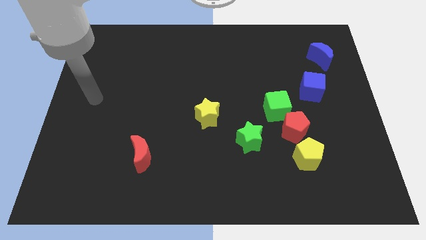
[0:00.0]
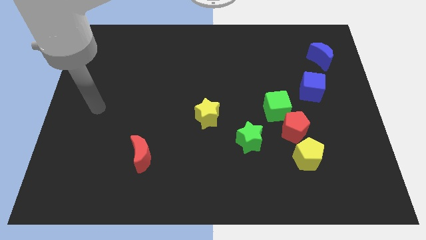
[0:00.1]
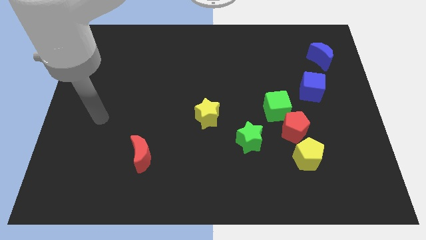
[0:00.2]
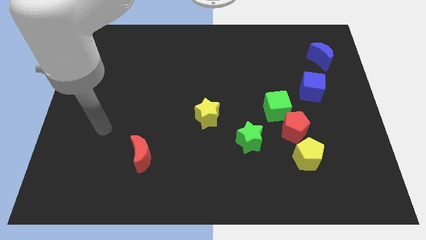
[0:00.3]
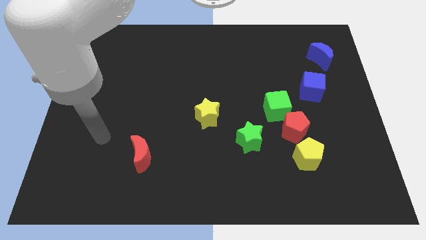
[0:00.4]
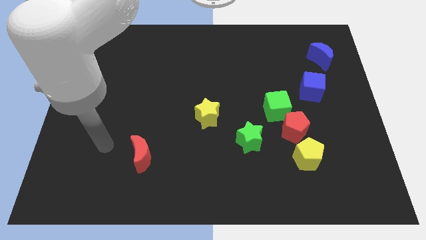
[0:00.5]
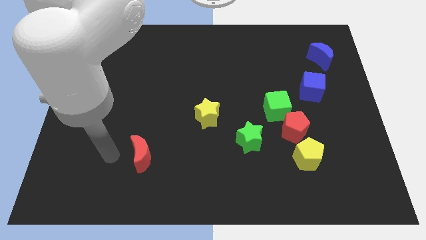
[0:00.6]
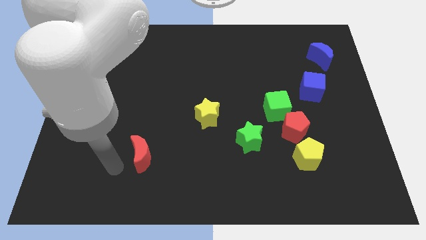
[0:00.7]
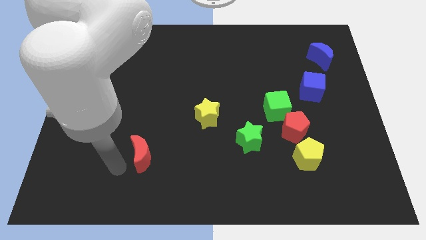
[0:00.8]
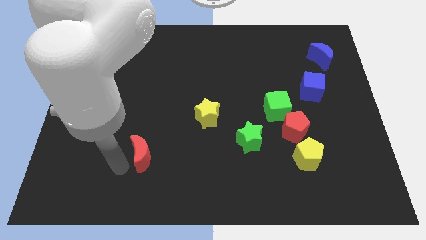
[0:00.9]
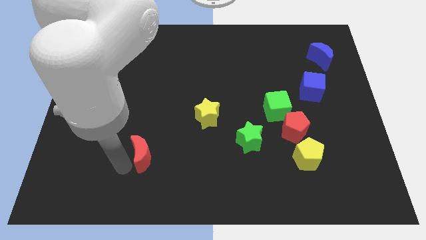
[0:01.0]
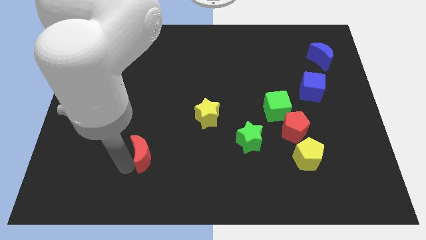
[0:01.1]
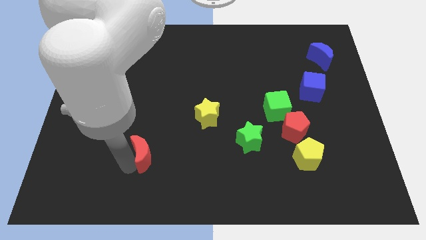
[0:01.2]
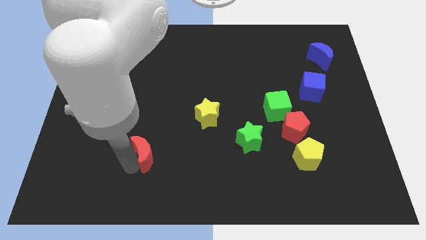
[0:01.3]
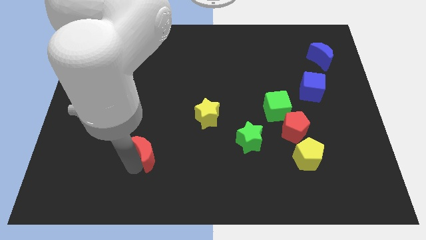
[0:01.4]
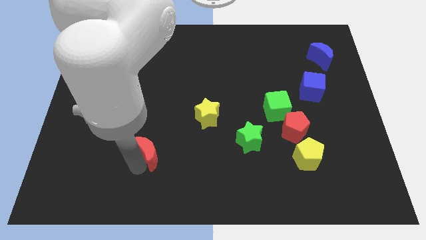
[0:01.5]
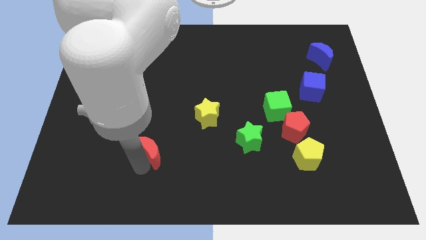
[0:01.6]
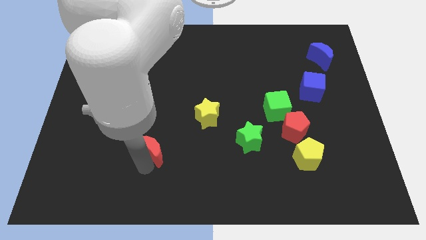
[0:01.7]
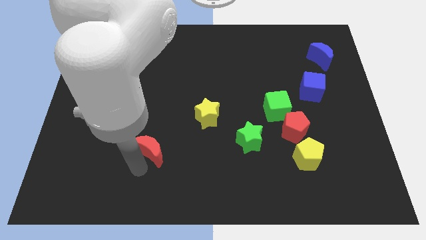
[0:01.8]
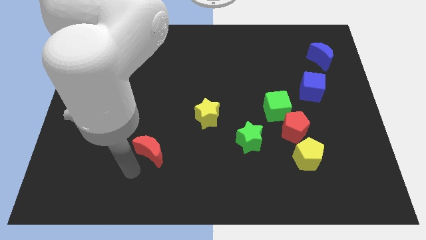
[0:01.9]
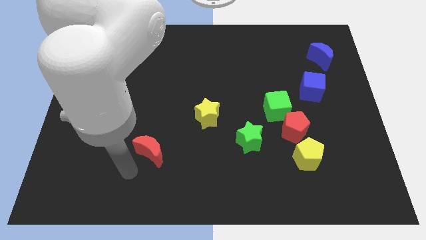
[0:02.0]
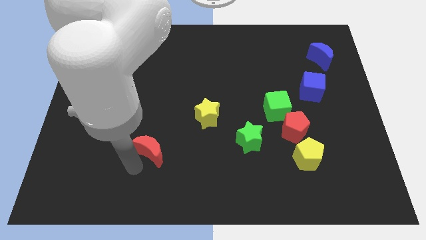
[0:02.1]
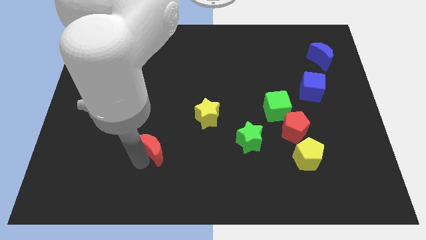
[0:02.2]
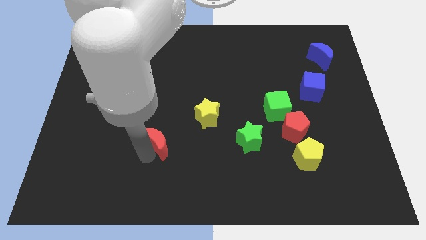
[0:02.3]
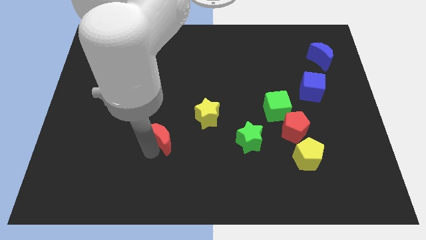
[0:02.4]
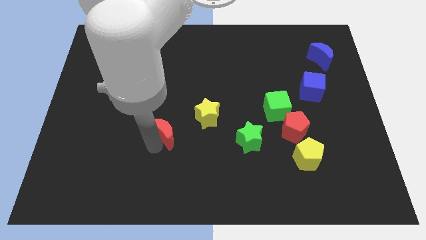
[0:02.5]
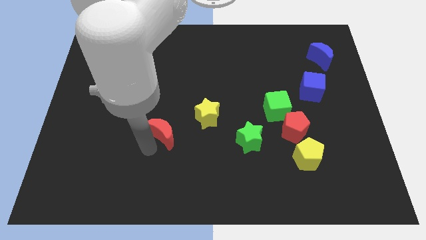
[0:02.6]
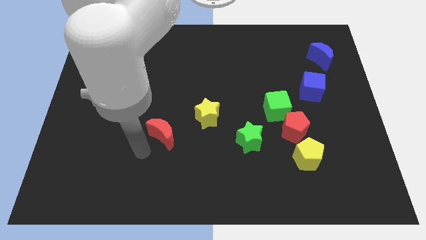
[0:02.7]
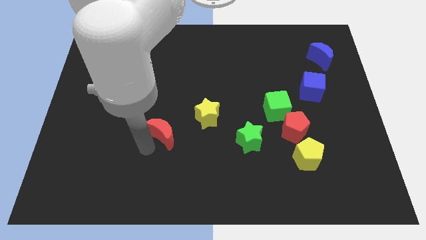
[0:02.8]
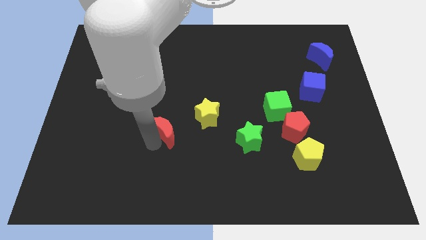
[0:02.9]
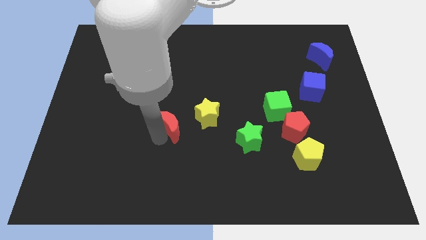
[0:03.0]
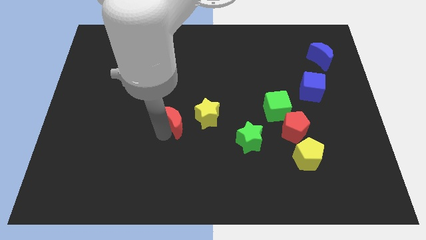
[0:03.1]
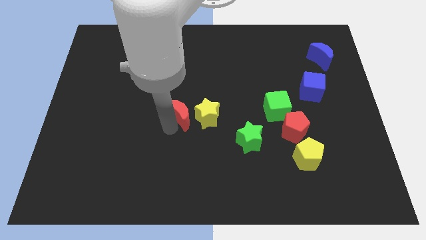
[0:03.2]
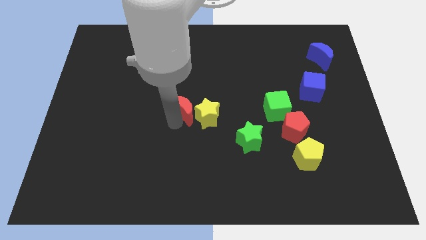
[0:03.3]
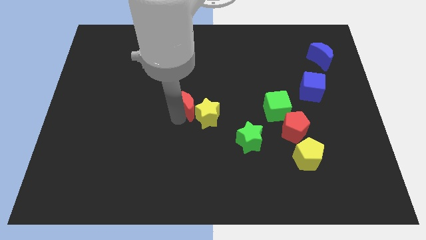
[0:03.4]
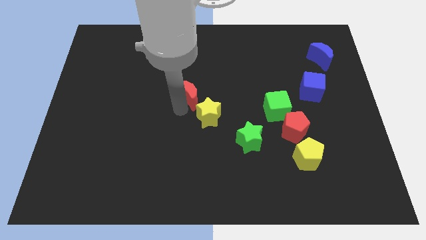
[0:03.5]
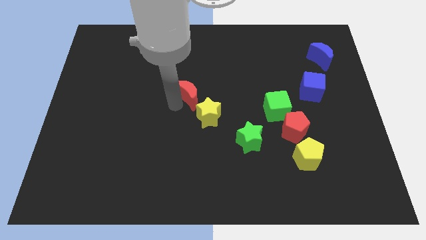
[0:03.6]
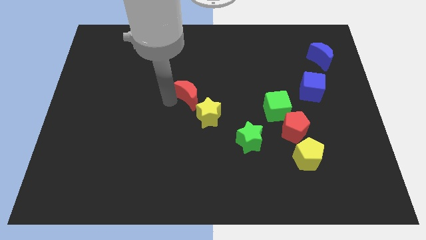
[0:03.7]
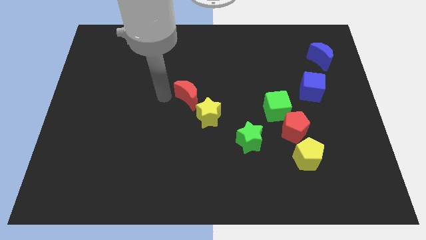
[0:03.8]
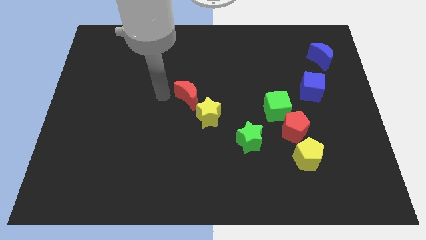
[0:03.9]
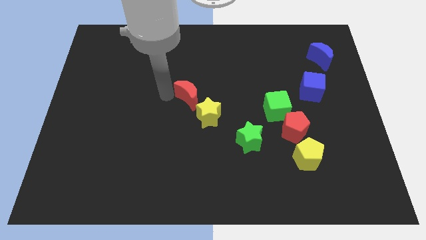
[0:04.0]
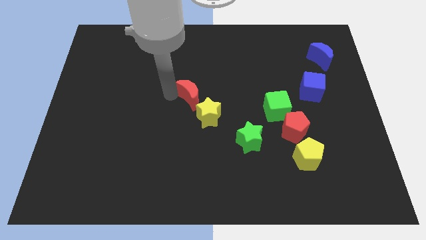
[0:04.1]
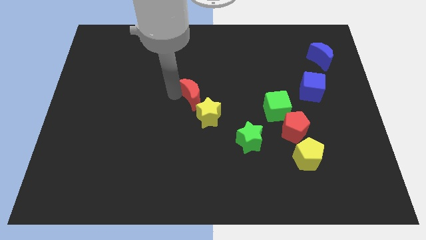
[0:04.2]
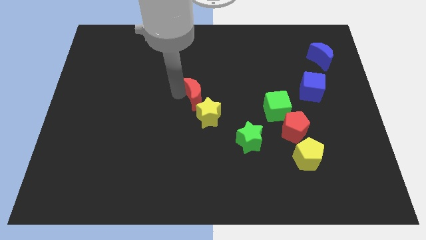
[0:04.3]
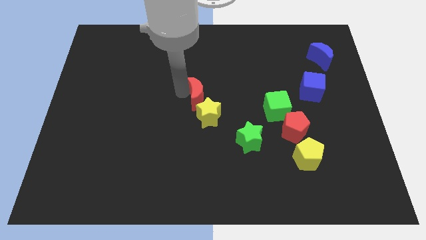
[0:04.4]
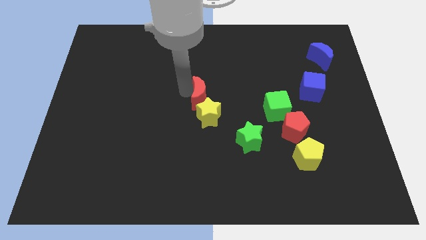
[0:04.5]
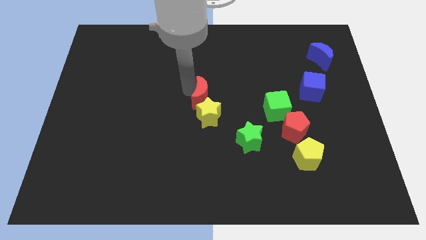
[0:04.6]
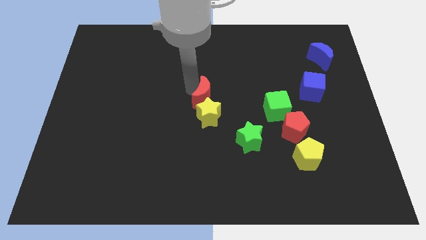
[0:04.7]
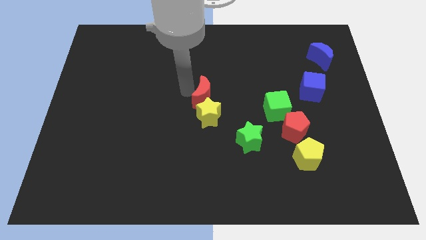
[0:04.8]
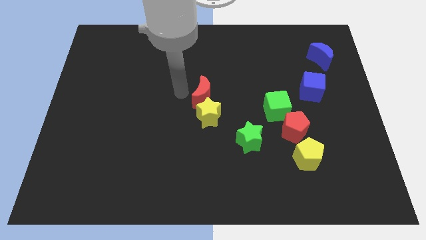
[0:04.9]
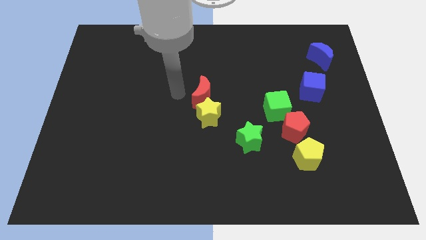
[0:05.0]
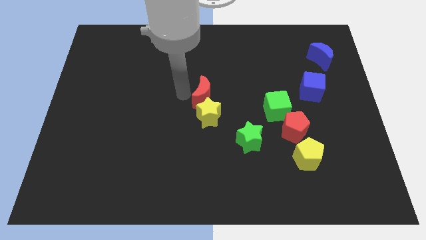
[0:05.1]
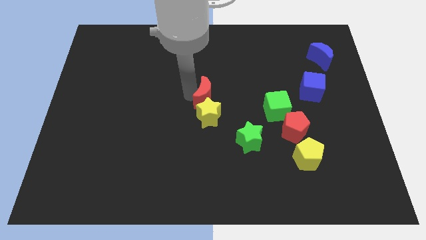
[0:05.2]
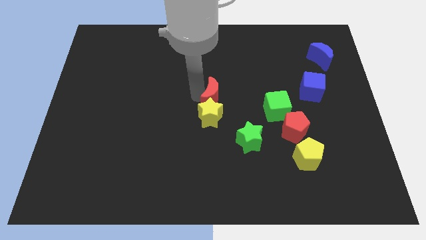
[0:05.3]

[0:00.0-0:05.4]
put the red moon to the top right side of the yellow star

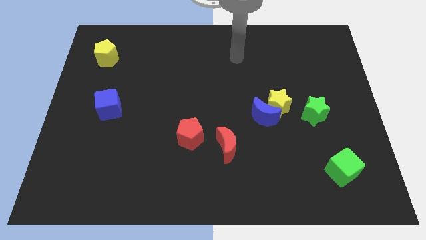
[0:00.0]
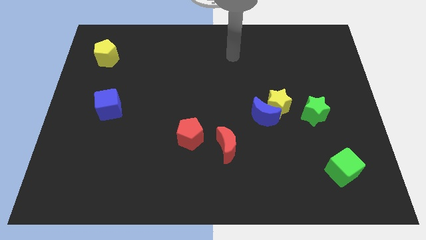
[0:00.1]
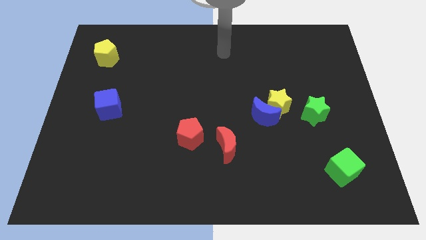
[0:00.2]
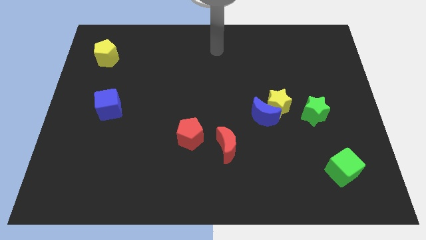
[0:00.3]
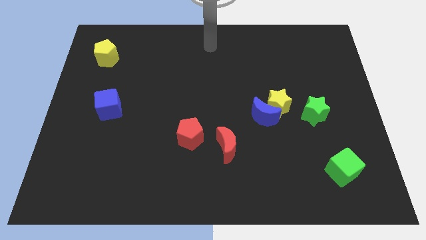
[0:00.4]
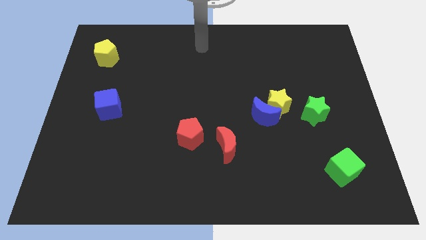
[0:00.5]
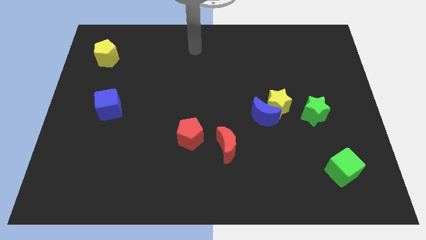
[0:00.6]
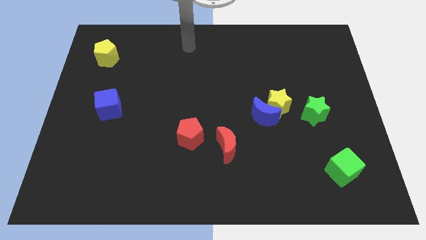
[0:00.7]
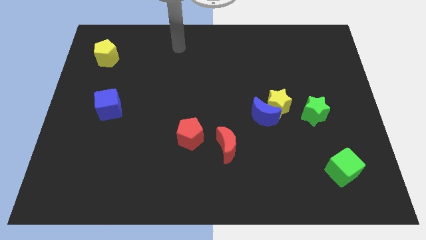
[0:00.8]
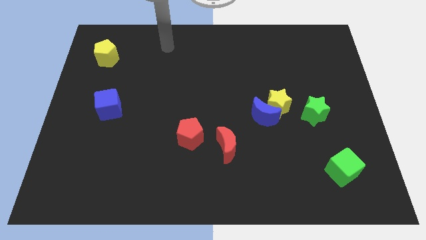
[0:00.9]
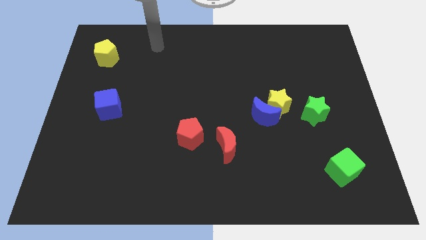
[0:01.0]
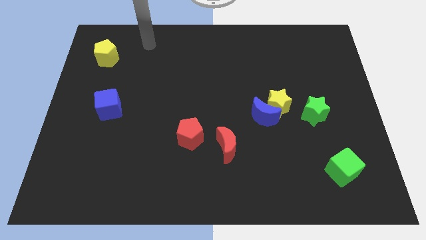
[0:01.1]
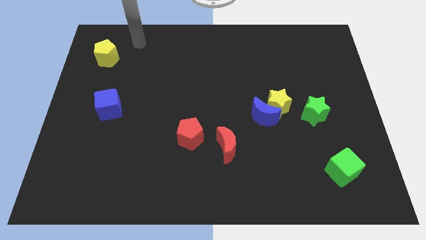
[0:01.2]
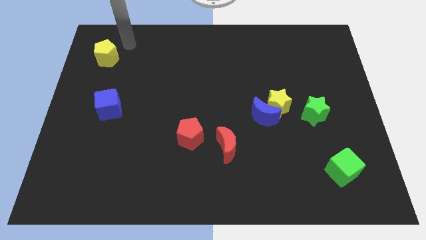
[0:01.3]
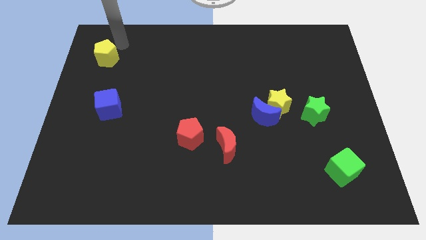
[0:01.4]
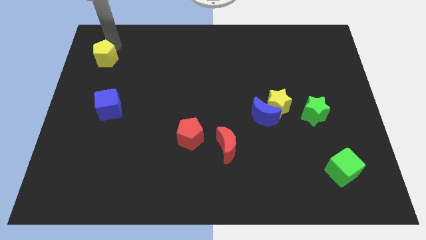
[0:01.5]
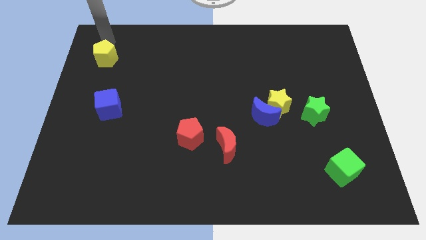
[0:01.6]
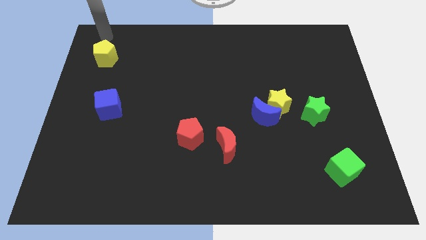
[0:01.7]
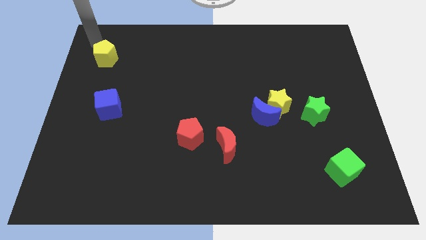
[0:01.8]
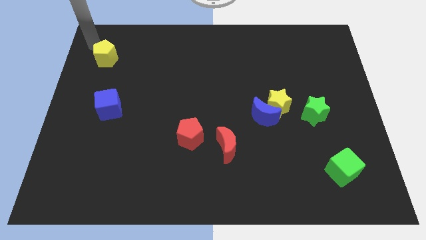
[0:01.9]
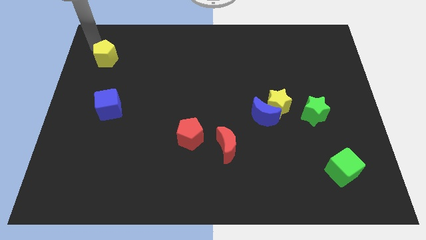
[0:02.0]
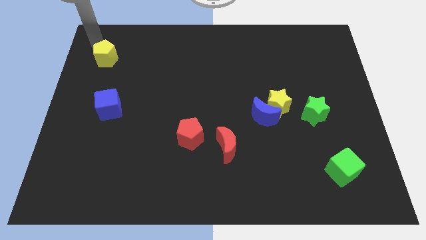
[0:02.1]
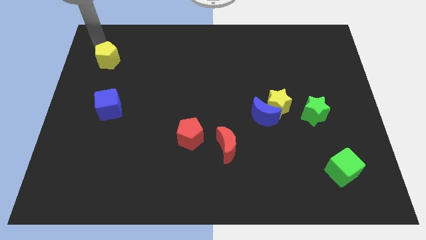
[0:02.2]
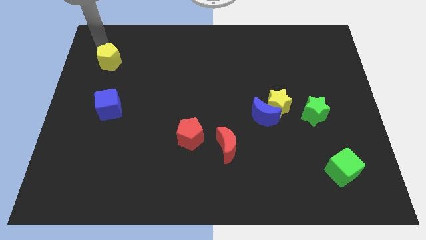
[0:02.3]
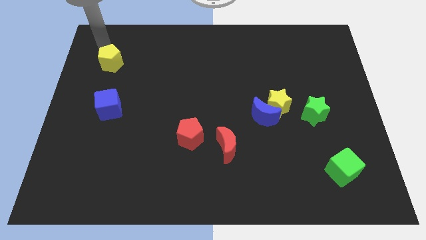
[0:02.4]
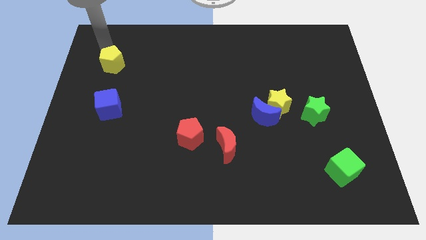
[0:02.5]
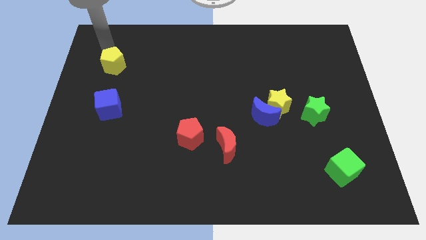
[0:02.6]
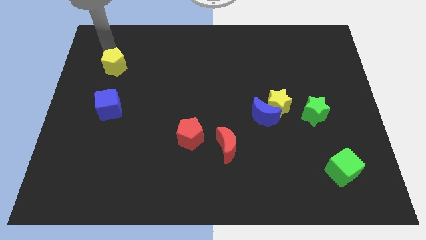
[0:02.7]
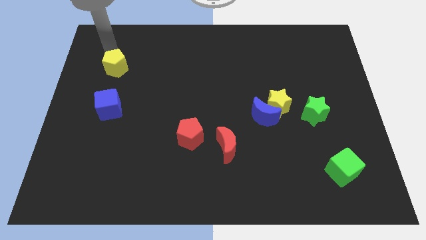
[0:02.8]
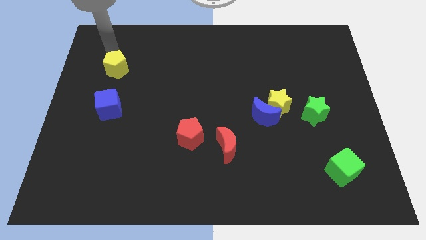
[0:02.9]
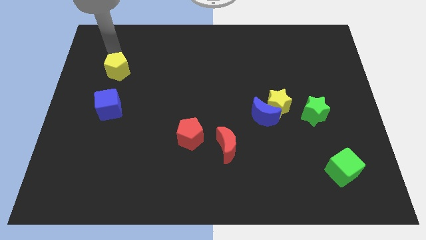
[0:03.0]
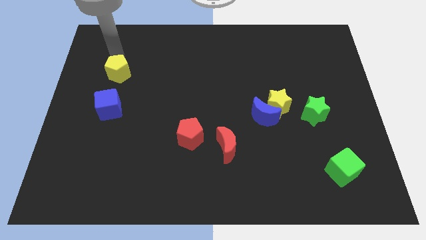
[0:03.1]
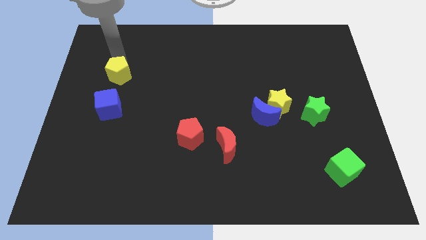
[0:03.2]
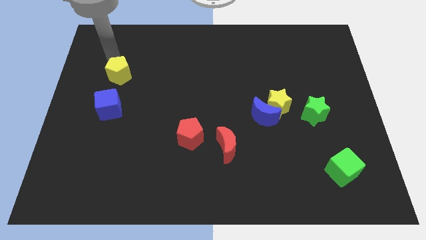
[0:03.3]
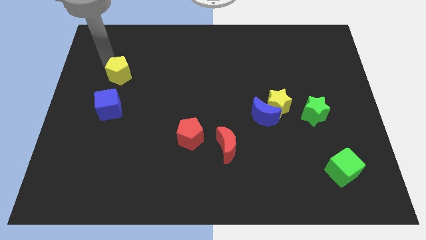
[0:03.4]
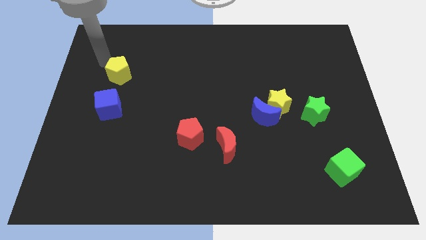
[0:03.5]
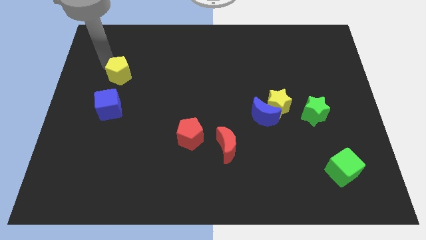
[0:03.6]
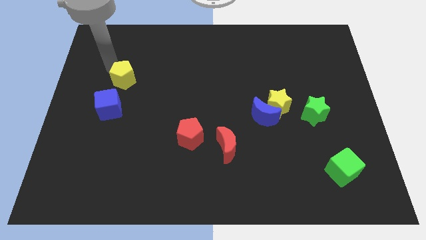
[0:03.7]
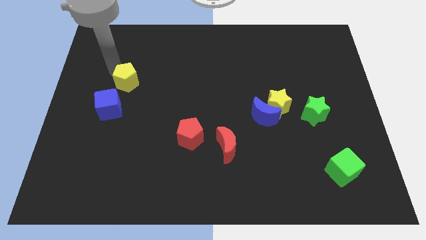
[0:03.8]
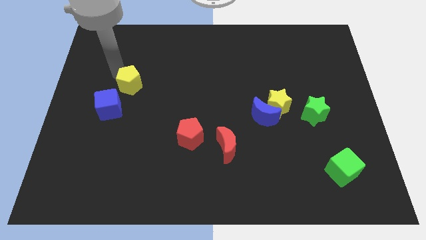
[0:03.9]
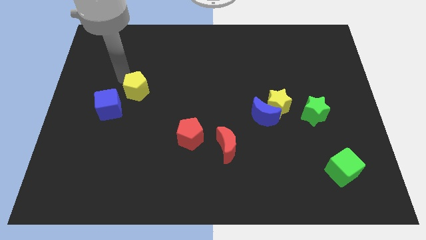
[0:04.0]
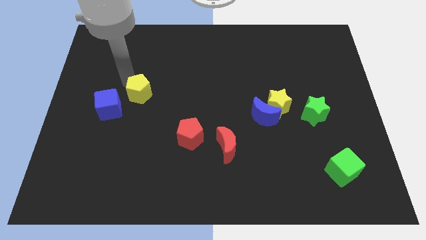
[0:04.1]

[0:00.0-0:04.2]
slide the yellow pentagon just right of the blue cube
